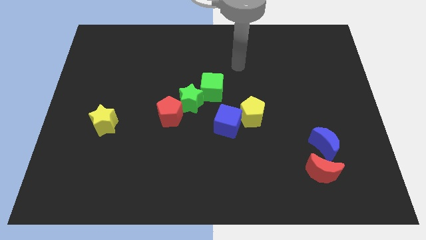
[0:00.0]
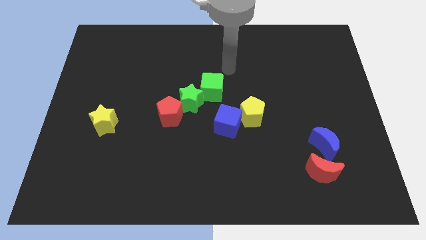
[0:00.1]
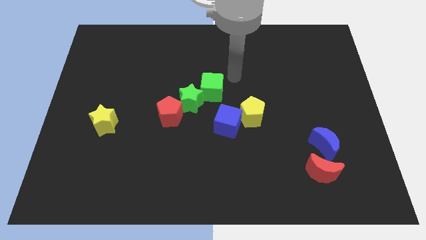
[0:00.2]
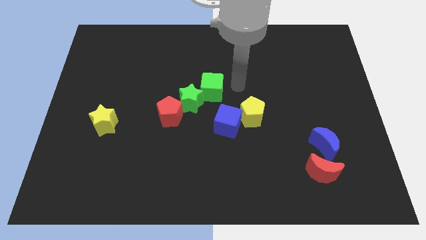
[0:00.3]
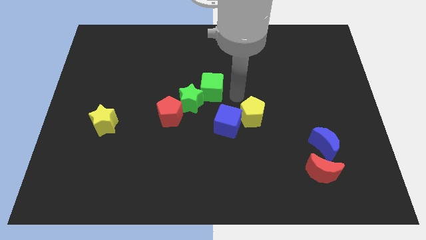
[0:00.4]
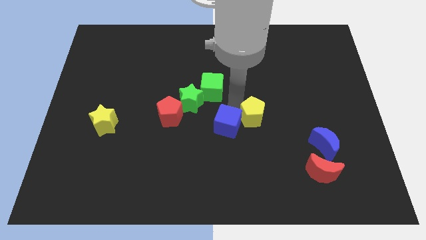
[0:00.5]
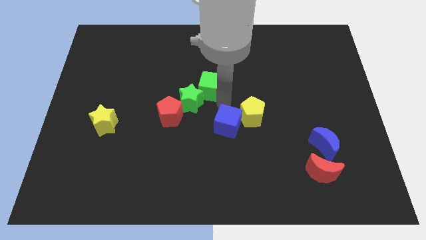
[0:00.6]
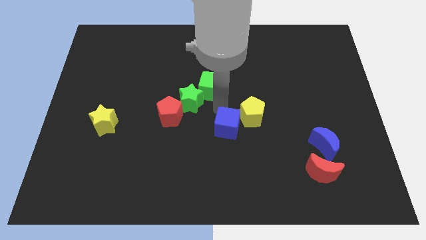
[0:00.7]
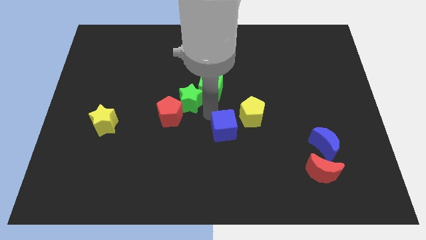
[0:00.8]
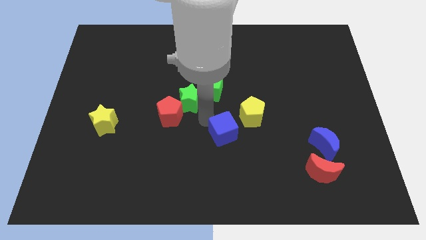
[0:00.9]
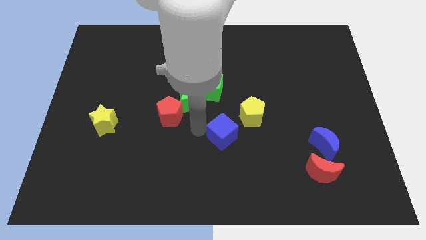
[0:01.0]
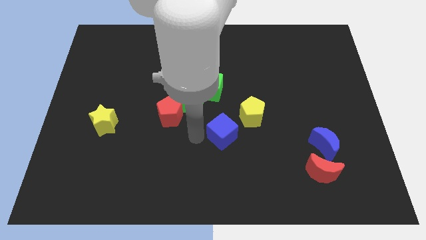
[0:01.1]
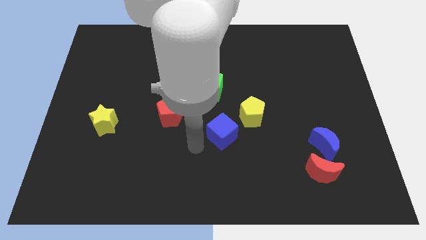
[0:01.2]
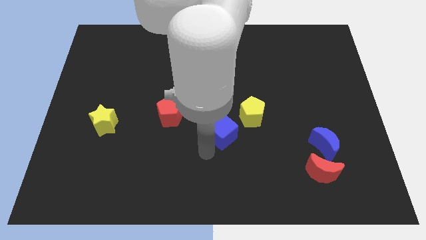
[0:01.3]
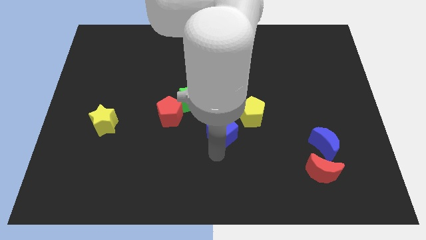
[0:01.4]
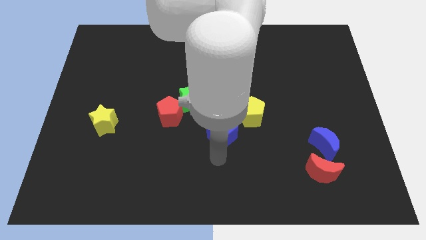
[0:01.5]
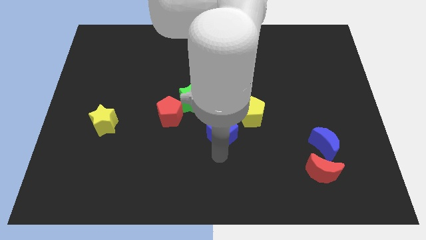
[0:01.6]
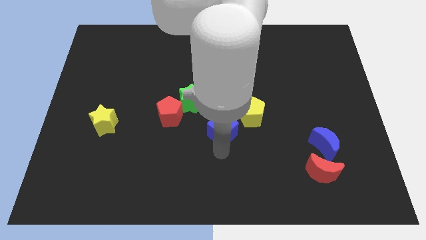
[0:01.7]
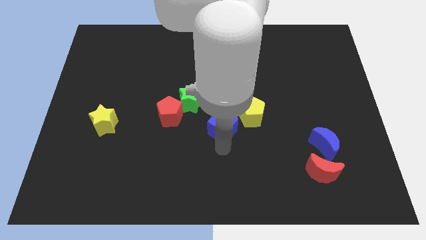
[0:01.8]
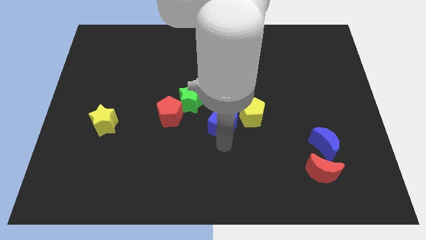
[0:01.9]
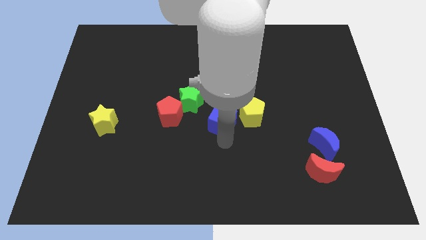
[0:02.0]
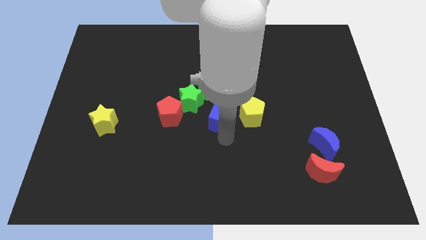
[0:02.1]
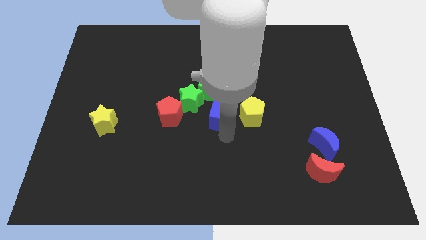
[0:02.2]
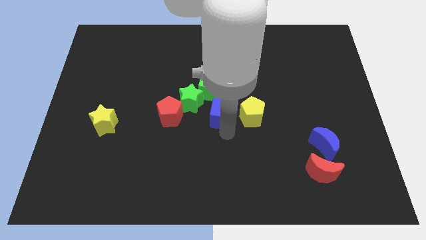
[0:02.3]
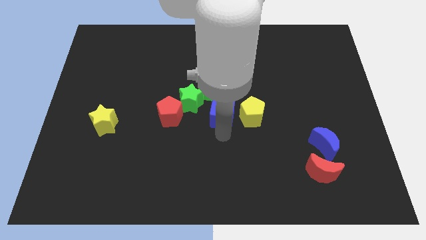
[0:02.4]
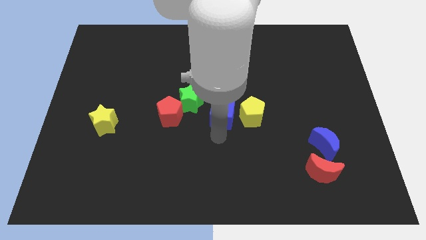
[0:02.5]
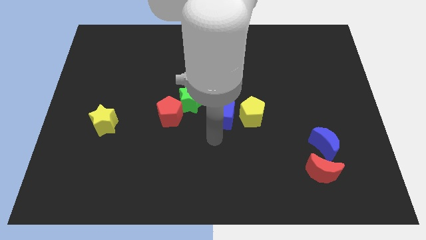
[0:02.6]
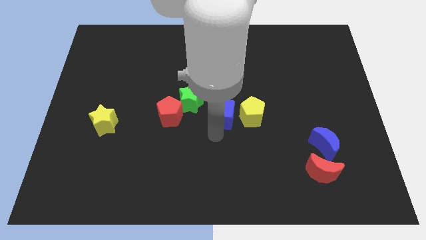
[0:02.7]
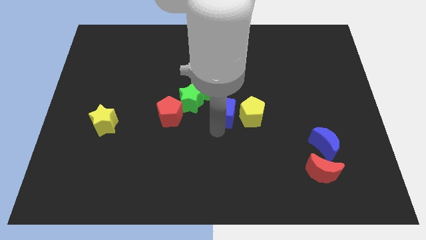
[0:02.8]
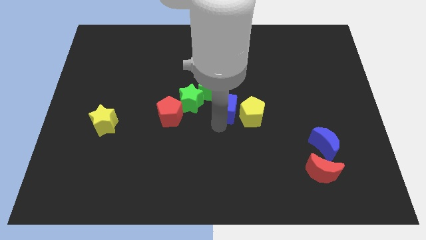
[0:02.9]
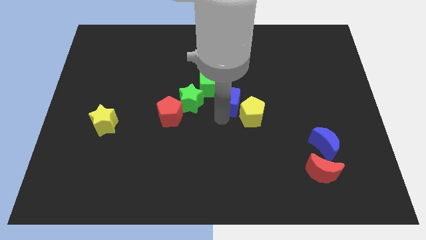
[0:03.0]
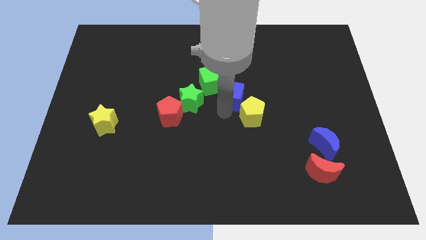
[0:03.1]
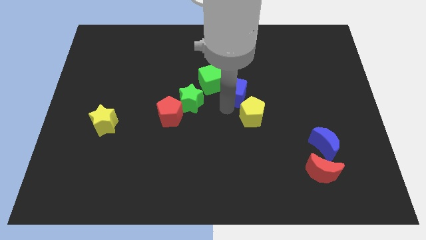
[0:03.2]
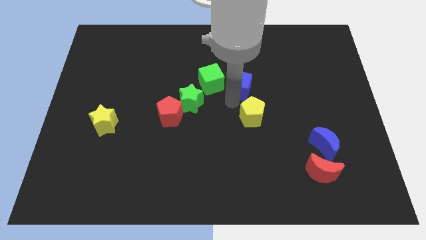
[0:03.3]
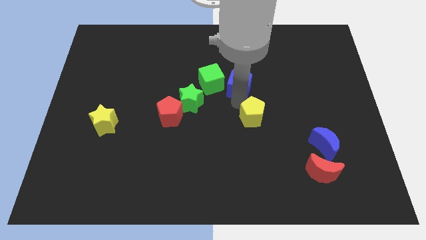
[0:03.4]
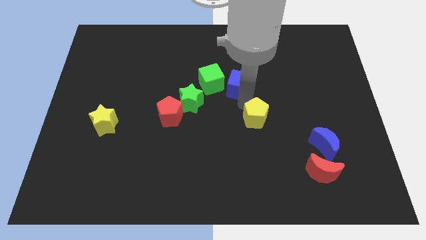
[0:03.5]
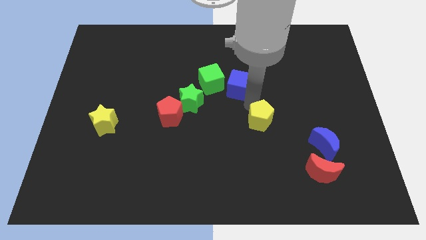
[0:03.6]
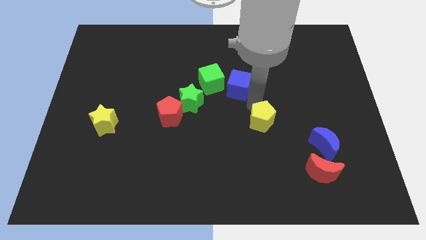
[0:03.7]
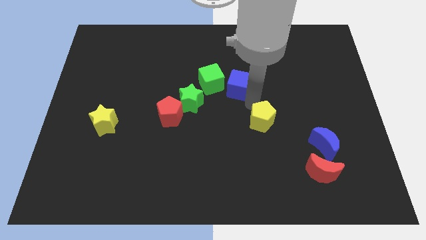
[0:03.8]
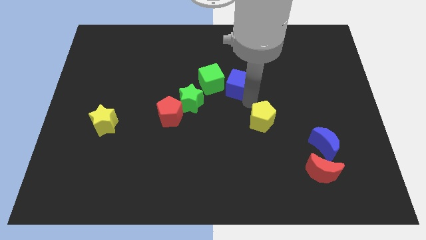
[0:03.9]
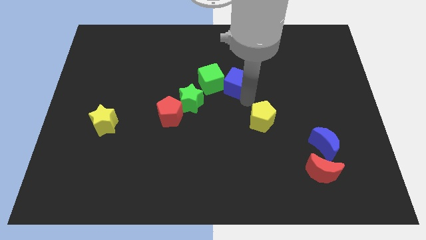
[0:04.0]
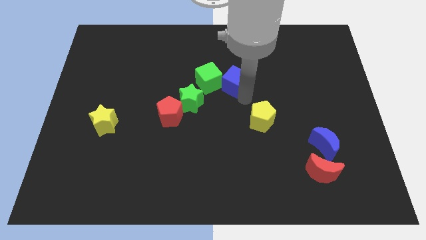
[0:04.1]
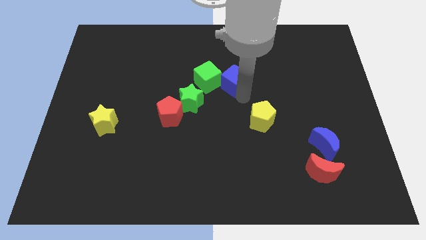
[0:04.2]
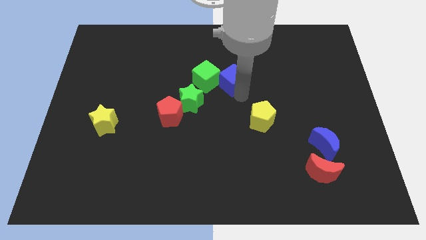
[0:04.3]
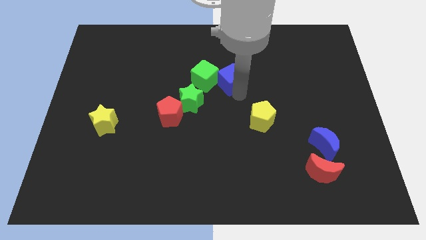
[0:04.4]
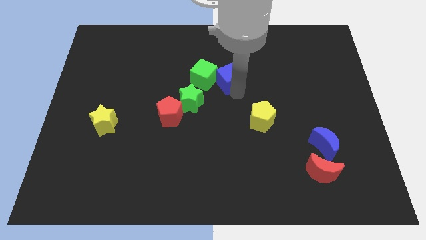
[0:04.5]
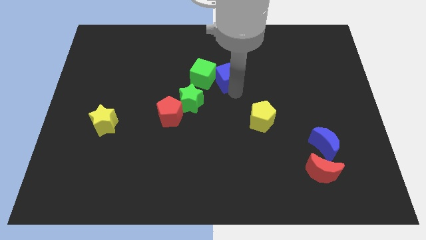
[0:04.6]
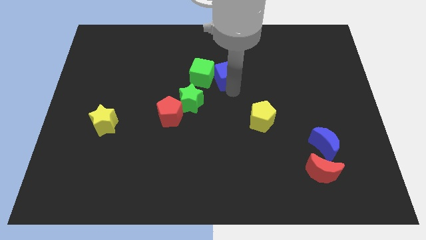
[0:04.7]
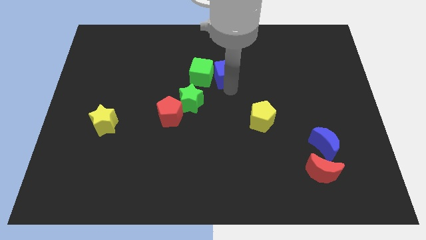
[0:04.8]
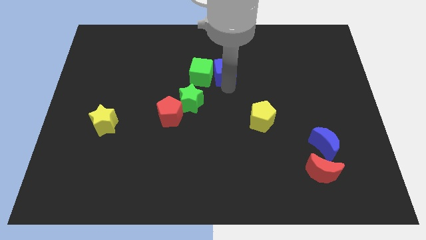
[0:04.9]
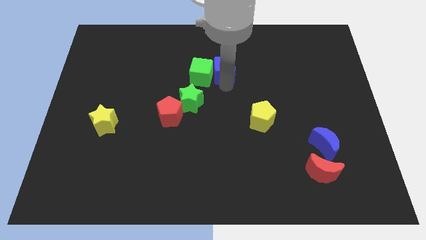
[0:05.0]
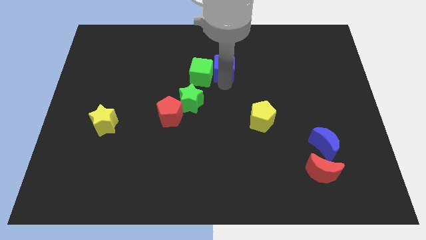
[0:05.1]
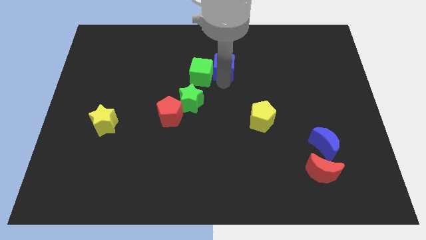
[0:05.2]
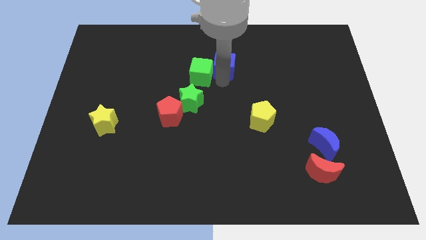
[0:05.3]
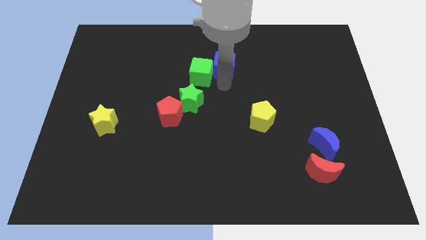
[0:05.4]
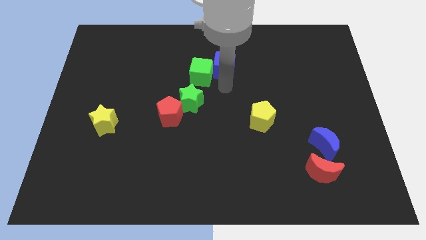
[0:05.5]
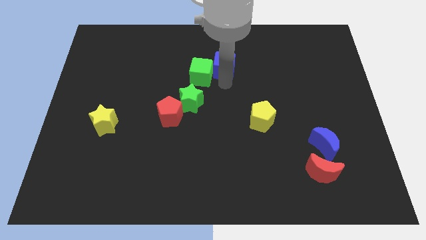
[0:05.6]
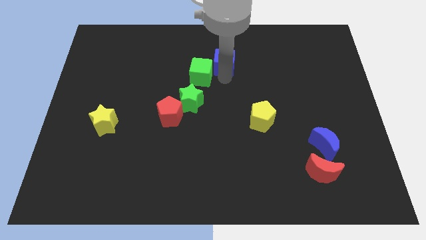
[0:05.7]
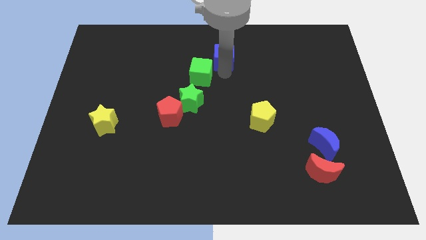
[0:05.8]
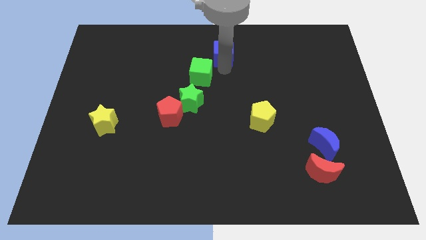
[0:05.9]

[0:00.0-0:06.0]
slide the blue cube to the top

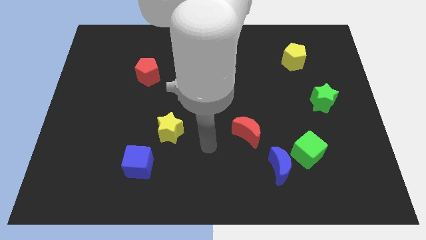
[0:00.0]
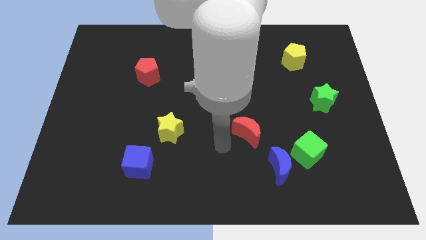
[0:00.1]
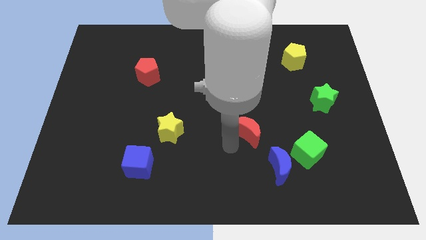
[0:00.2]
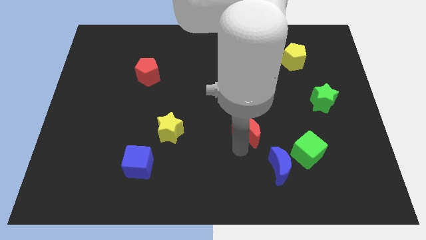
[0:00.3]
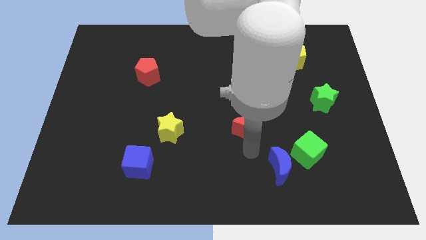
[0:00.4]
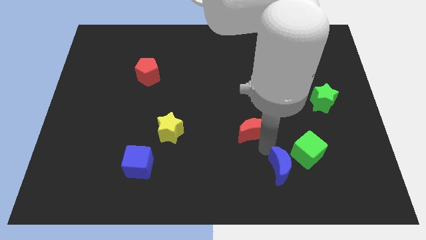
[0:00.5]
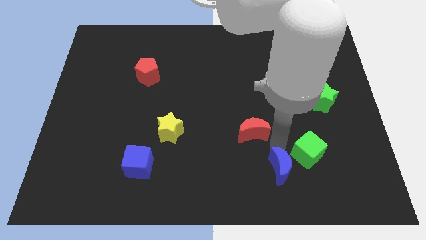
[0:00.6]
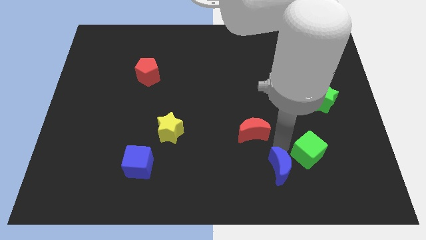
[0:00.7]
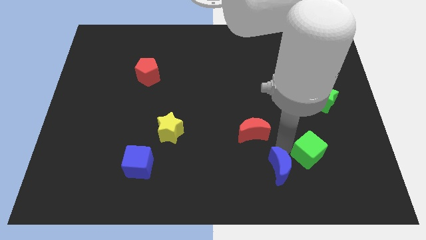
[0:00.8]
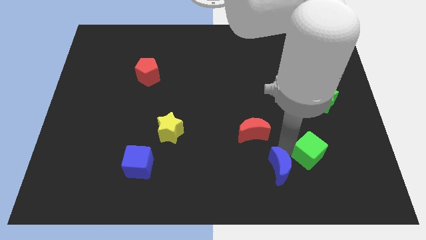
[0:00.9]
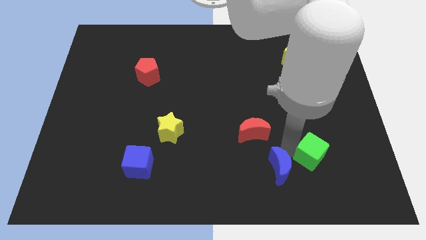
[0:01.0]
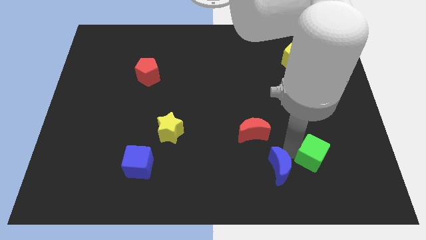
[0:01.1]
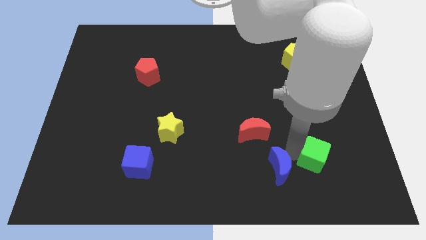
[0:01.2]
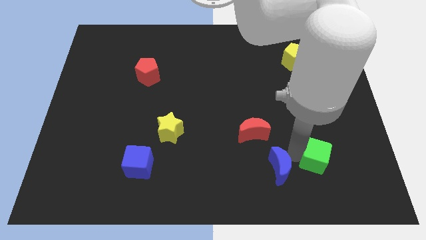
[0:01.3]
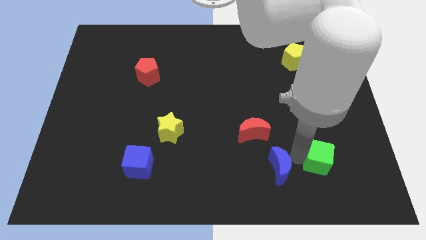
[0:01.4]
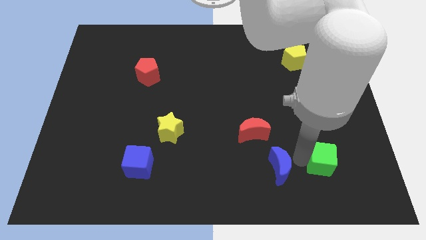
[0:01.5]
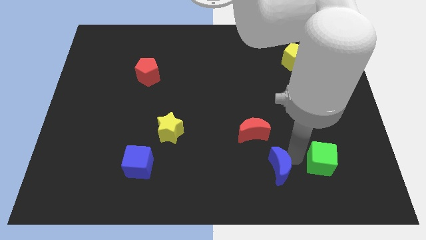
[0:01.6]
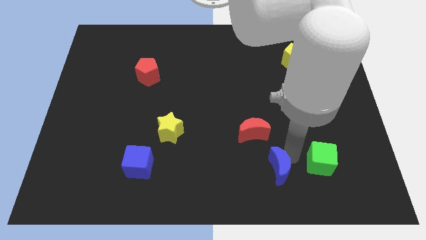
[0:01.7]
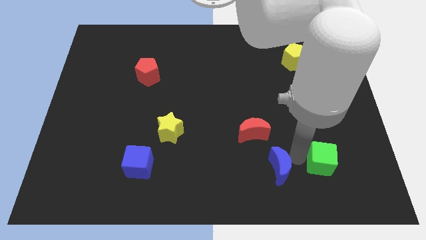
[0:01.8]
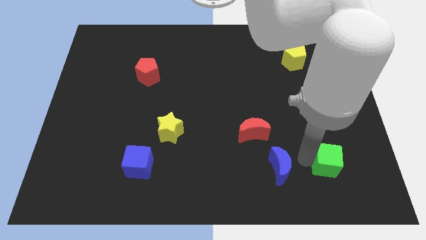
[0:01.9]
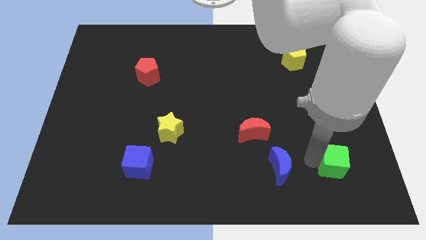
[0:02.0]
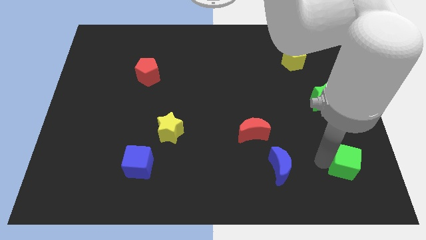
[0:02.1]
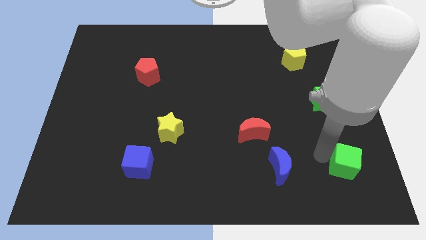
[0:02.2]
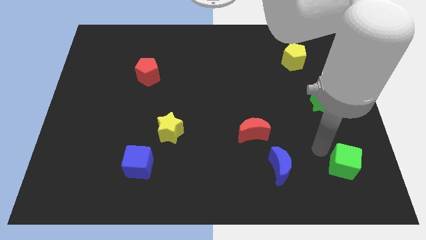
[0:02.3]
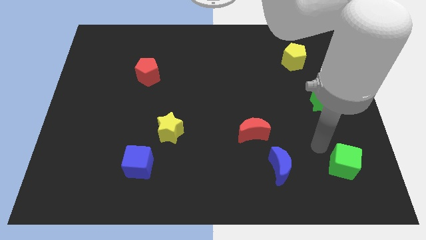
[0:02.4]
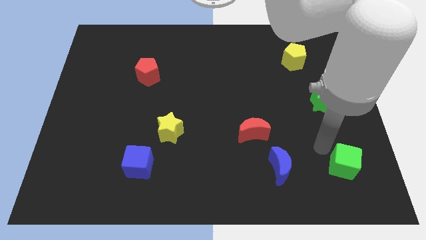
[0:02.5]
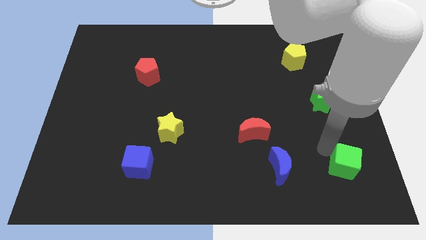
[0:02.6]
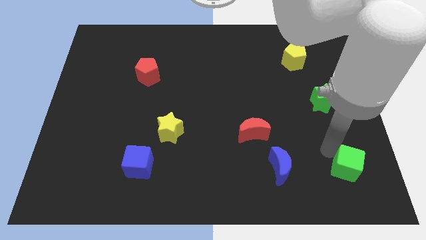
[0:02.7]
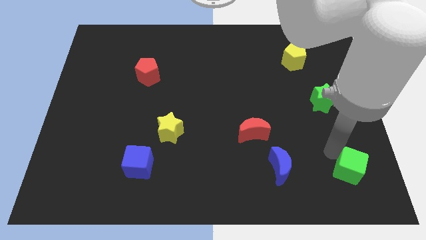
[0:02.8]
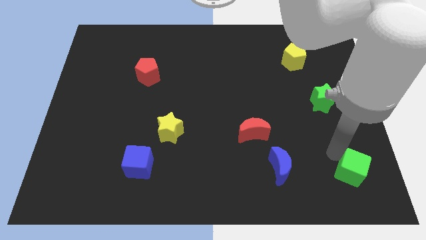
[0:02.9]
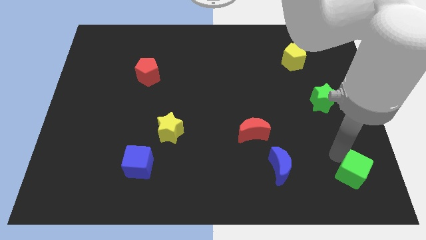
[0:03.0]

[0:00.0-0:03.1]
push the green cube to the bottom right corner
